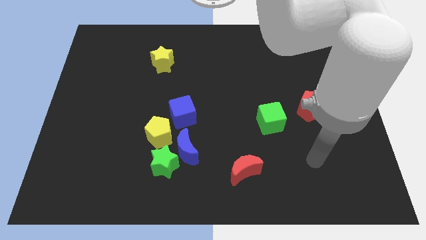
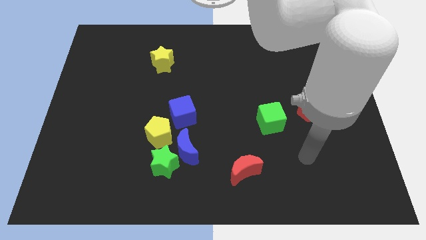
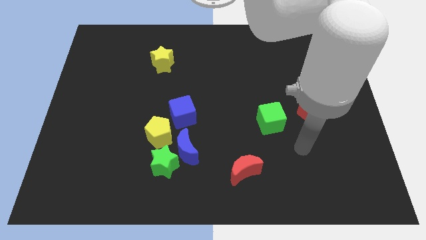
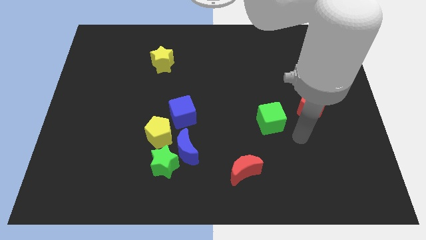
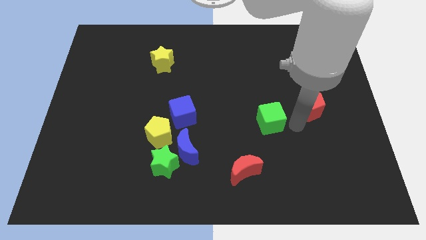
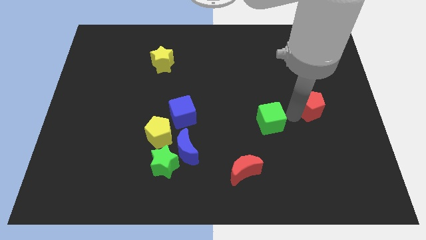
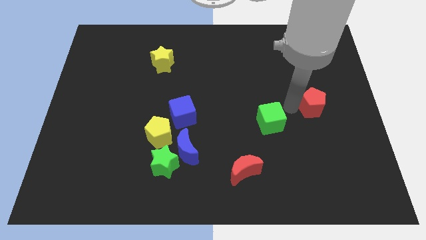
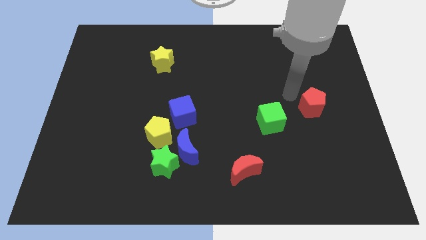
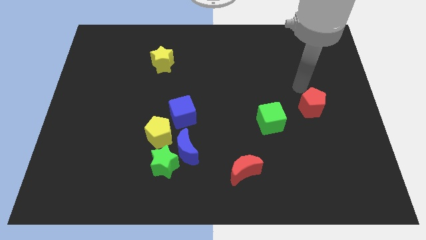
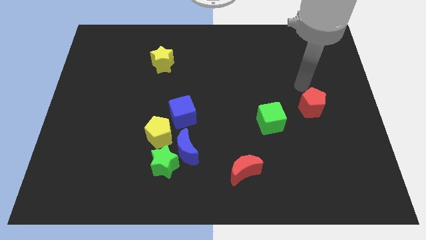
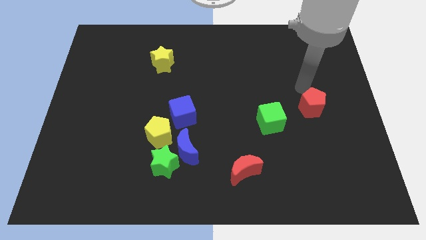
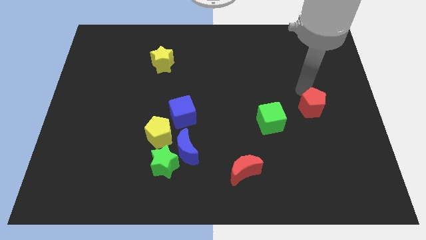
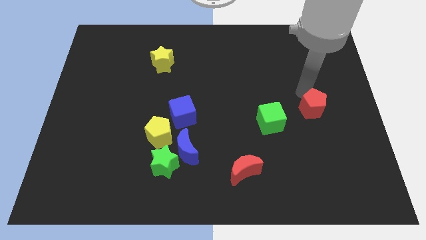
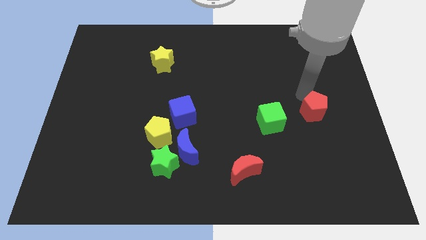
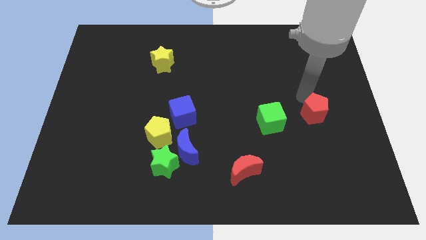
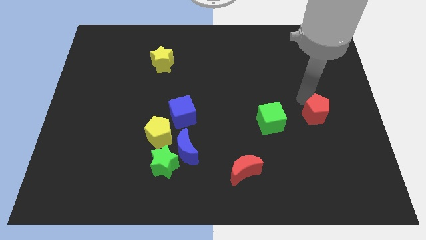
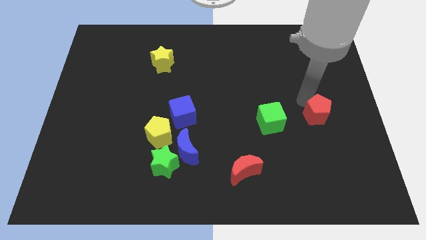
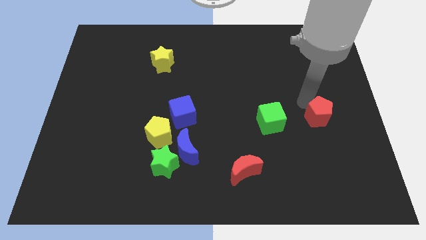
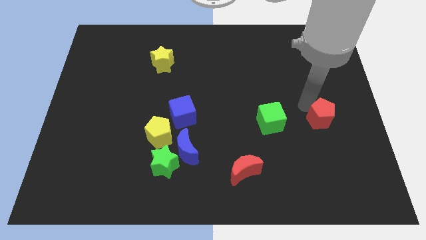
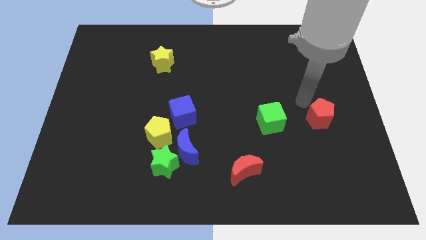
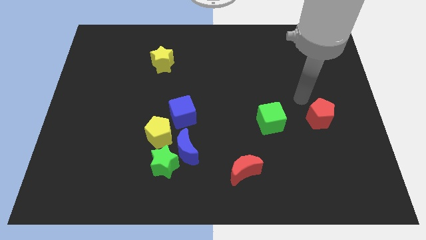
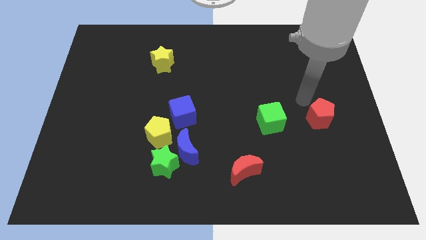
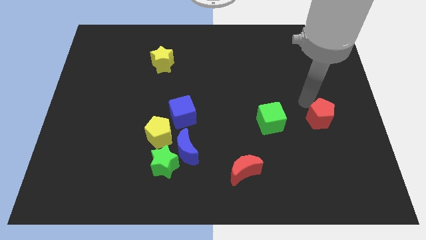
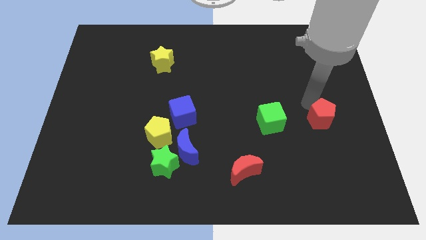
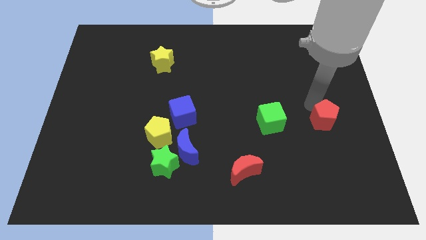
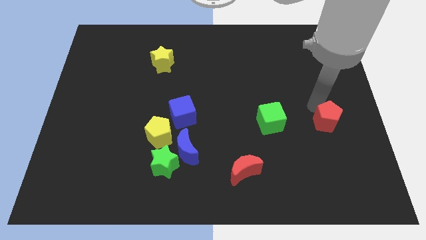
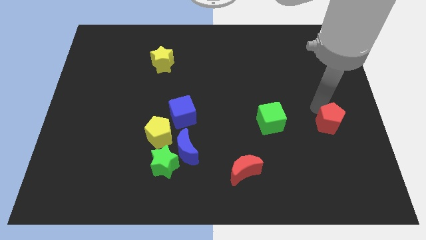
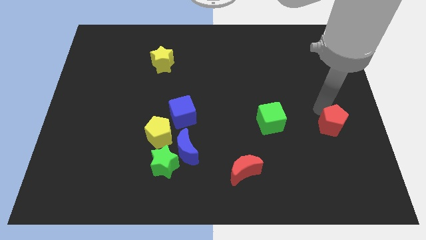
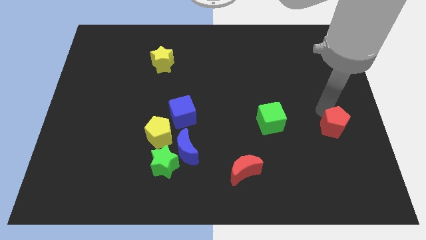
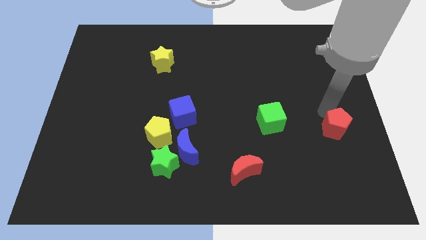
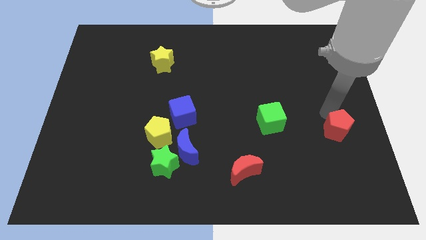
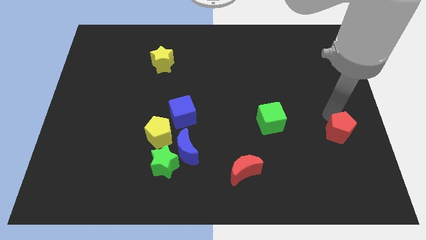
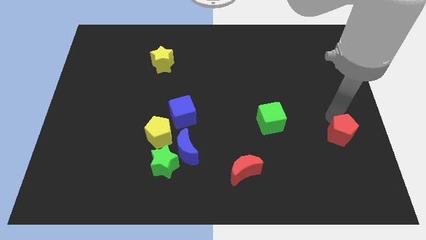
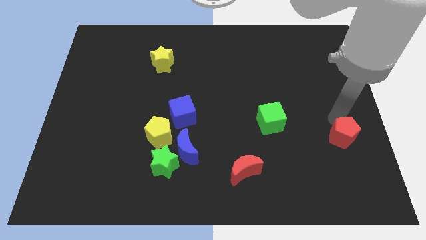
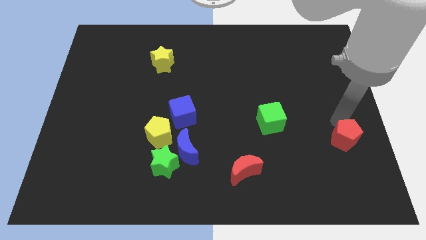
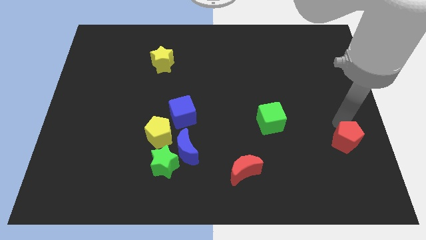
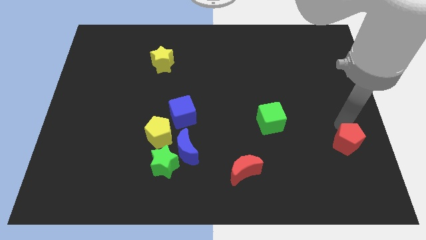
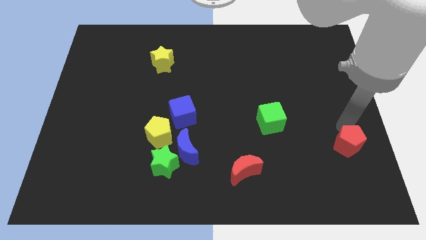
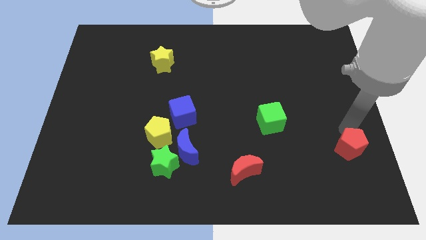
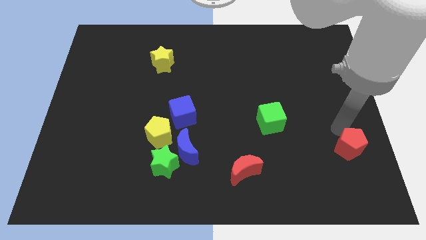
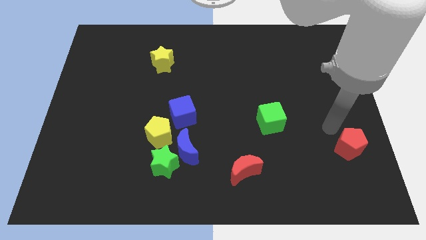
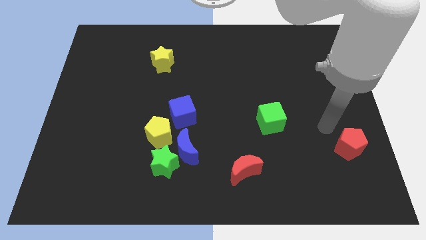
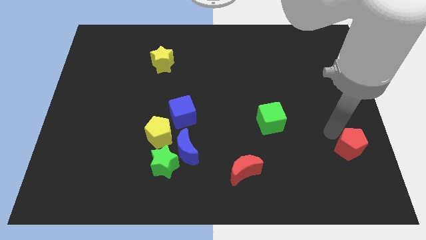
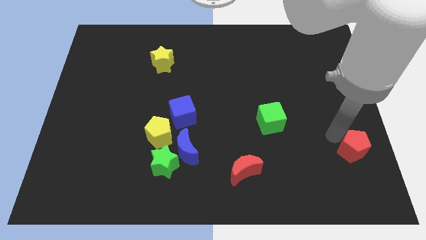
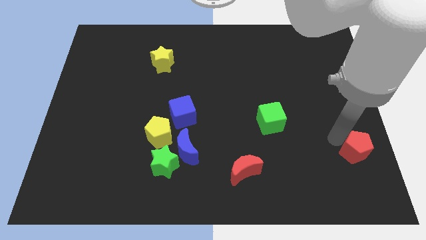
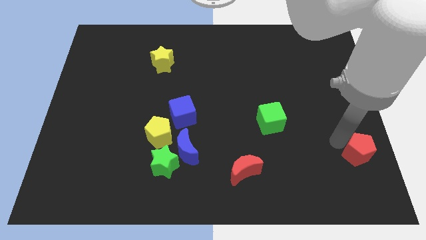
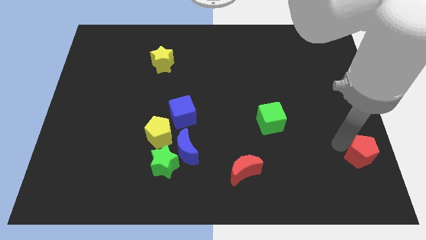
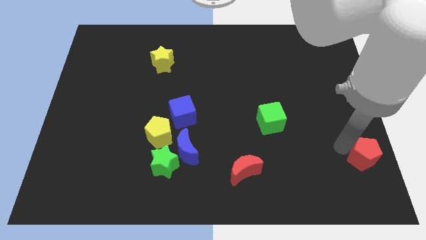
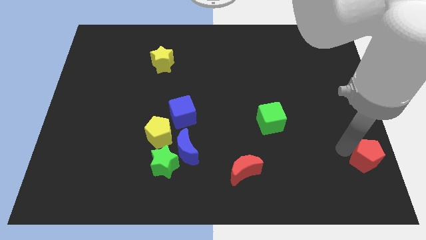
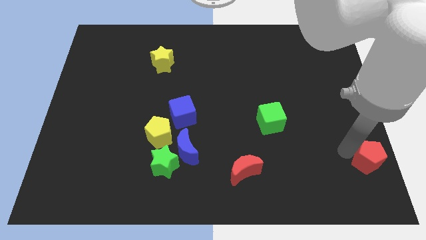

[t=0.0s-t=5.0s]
slide the red pentagon to the bottom right corner

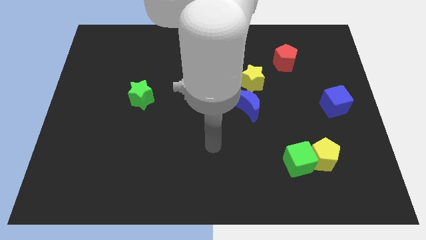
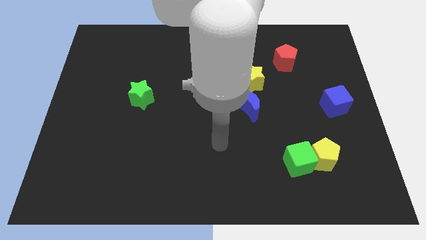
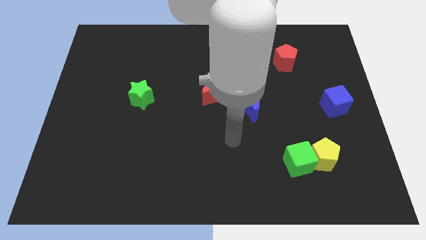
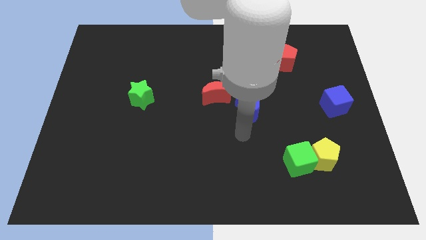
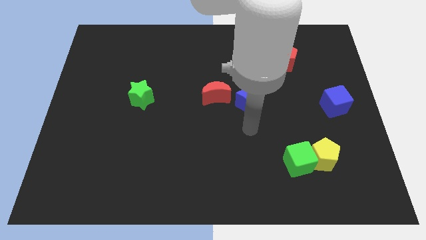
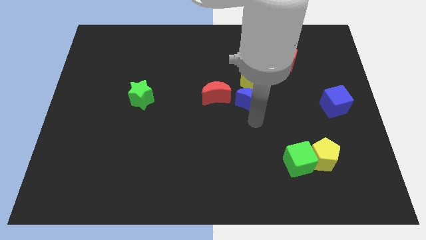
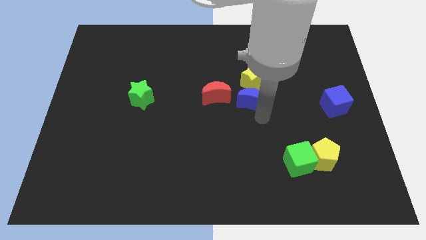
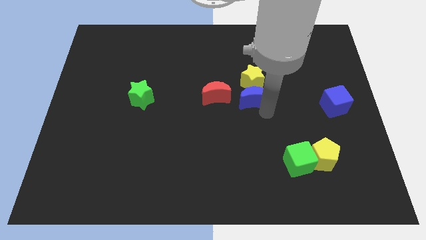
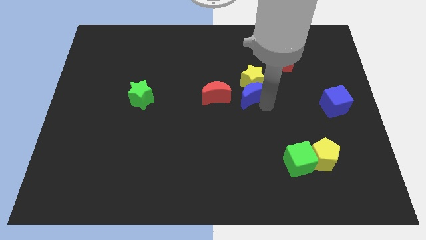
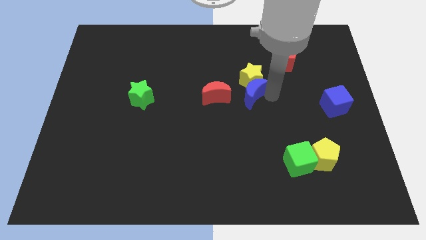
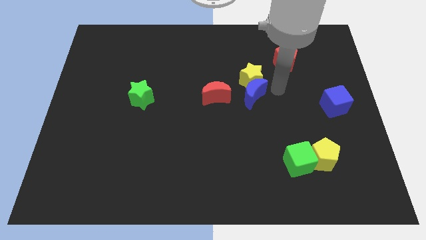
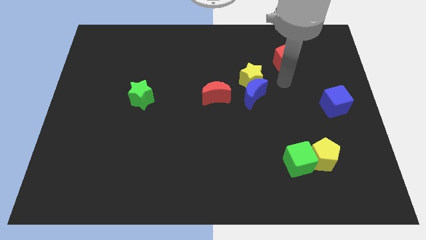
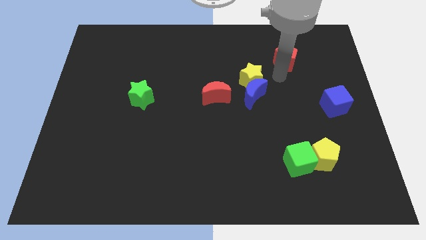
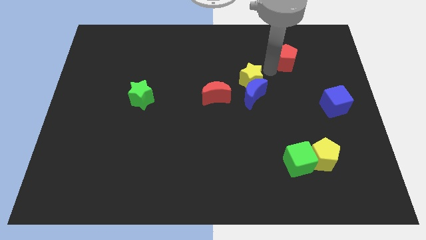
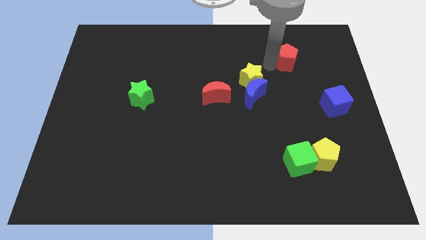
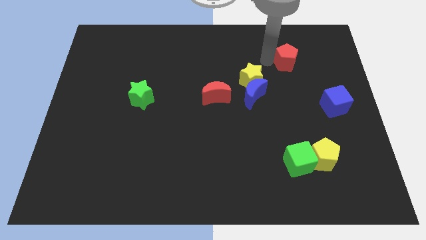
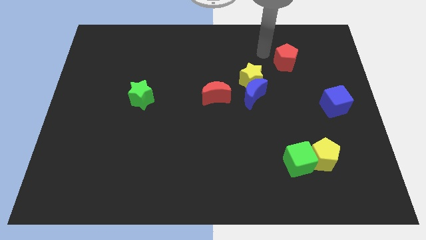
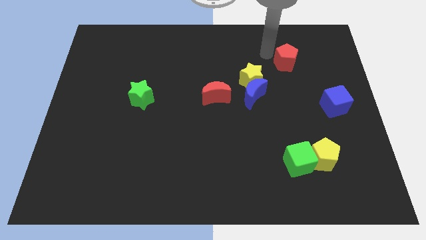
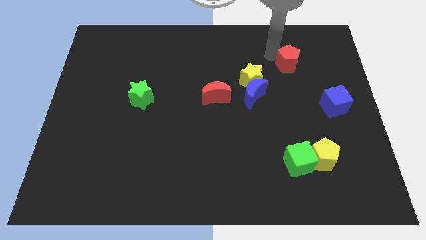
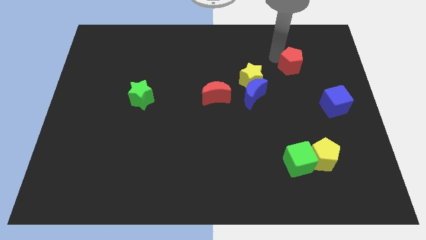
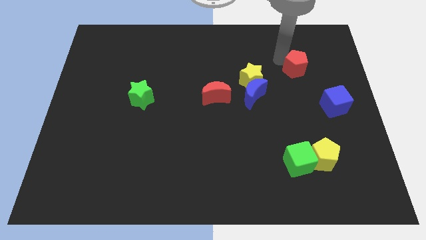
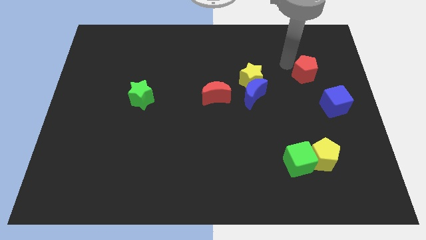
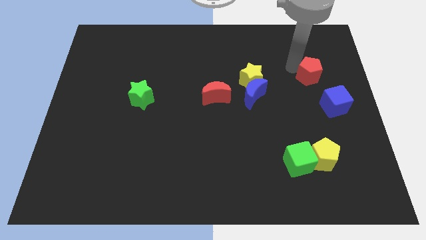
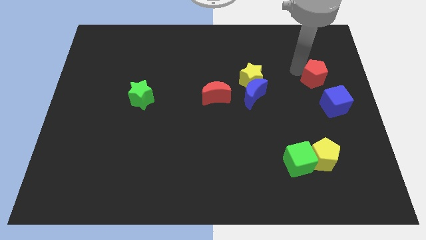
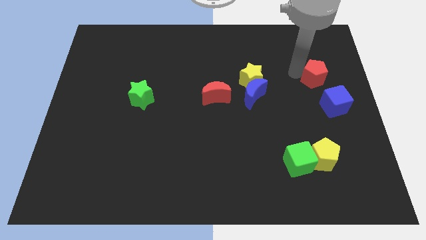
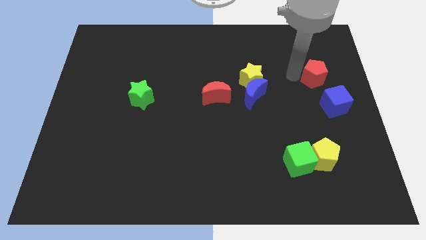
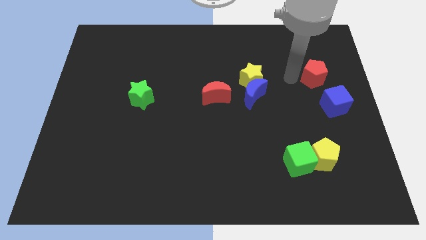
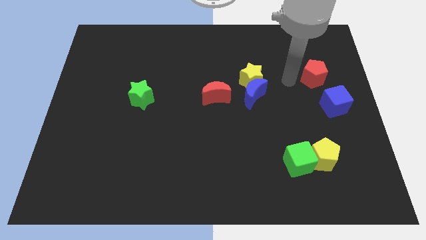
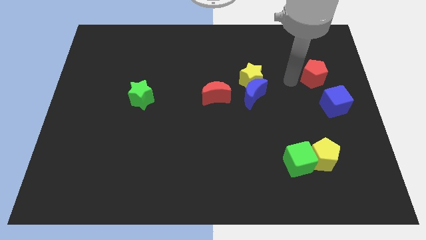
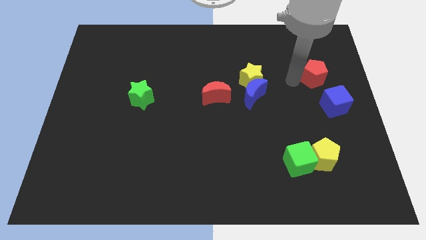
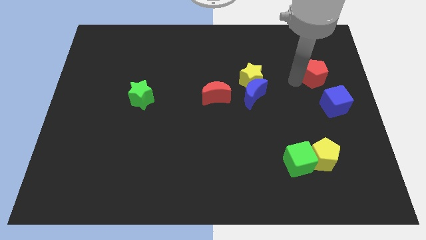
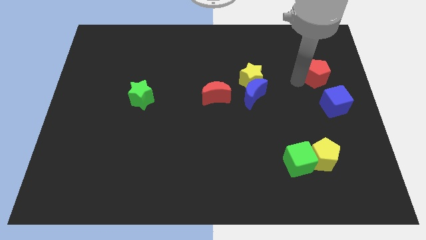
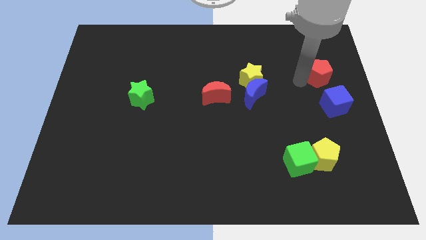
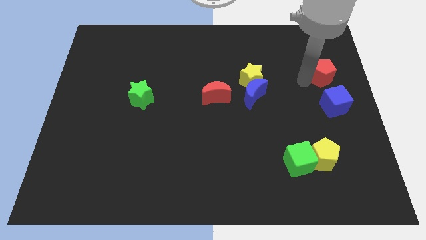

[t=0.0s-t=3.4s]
move the red pentagon to the center right
